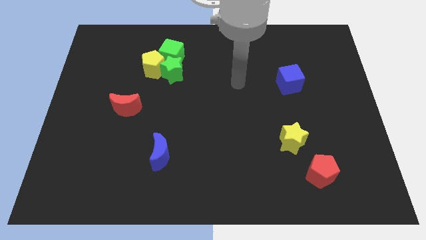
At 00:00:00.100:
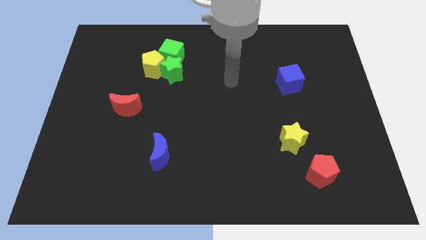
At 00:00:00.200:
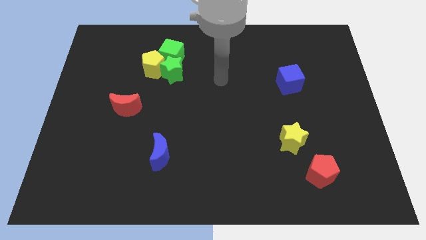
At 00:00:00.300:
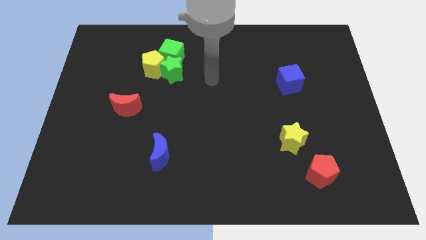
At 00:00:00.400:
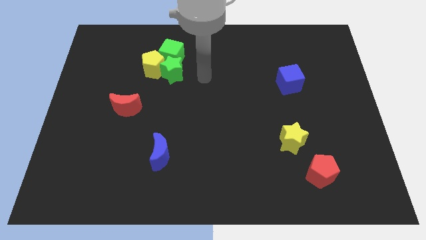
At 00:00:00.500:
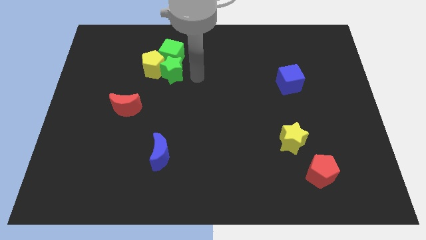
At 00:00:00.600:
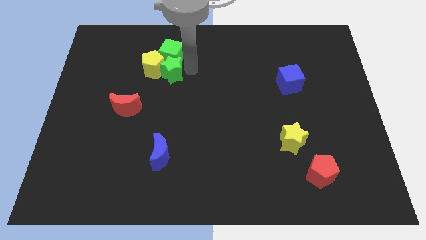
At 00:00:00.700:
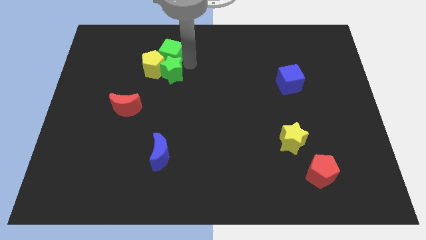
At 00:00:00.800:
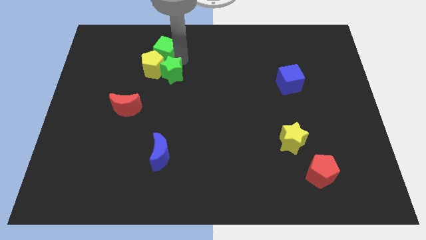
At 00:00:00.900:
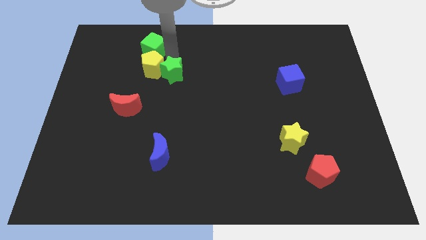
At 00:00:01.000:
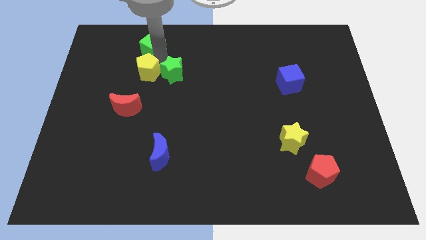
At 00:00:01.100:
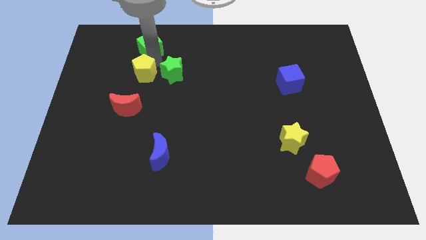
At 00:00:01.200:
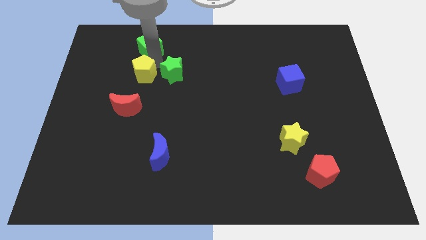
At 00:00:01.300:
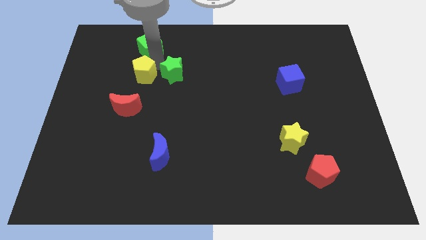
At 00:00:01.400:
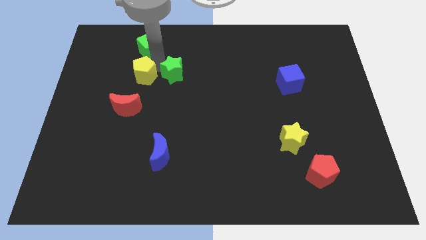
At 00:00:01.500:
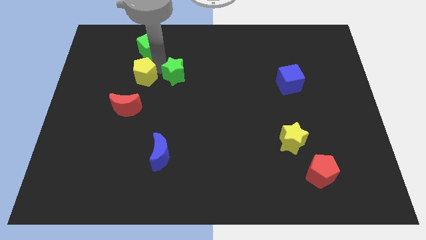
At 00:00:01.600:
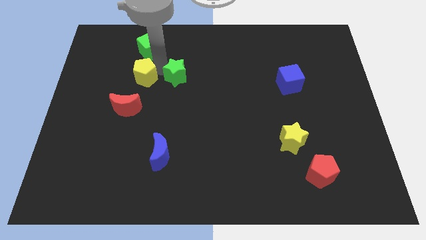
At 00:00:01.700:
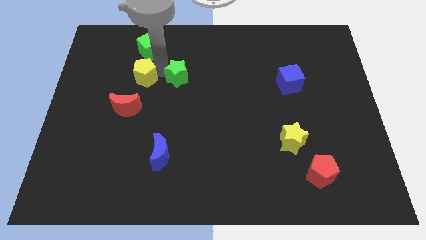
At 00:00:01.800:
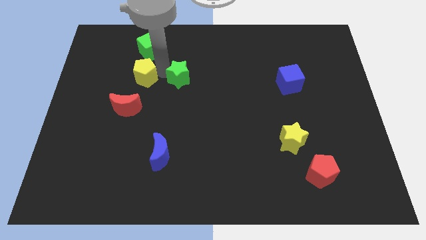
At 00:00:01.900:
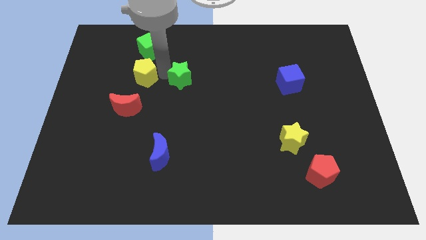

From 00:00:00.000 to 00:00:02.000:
separate the green star from the yellow pentagon and green cube

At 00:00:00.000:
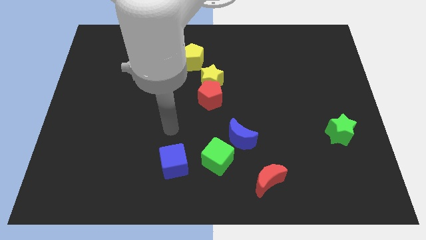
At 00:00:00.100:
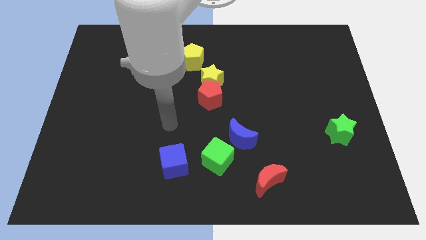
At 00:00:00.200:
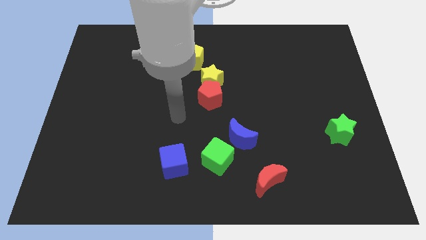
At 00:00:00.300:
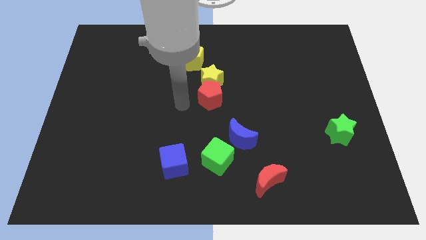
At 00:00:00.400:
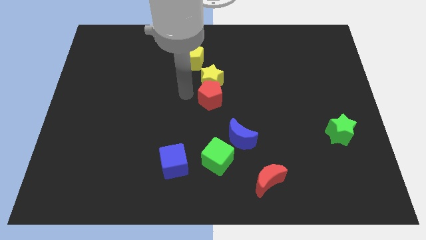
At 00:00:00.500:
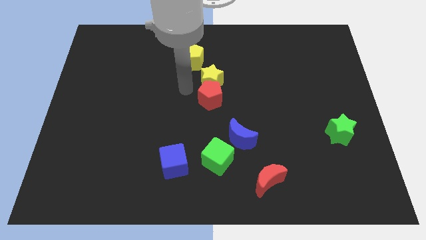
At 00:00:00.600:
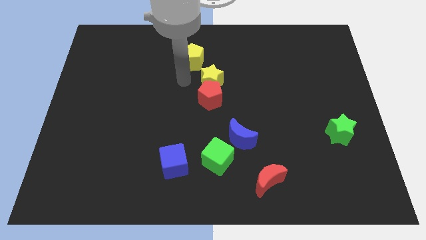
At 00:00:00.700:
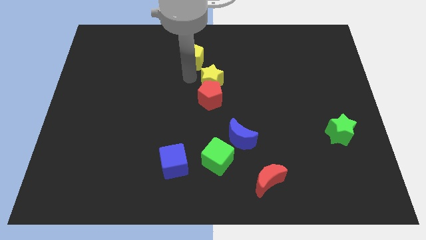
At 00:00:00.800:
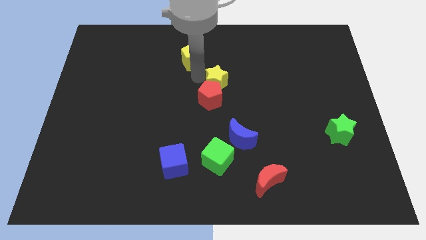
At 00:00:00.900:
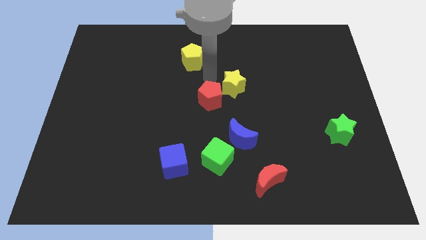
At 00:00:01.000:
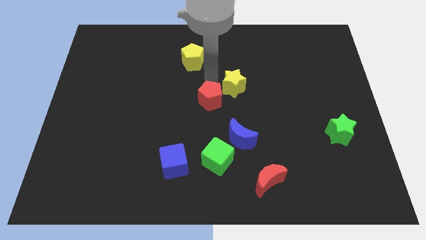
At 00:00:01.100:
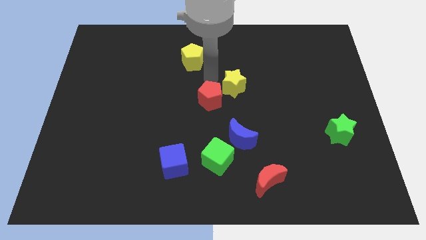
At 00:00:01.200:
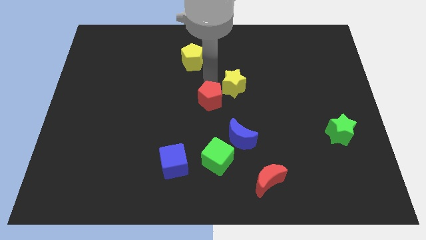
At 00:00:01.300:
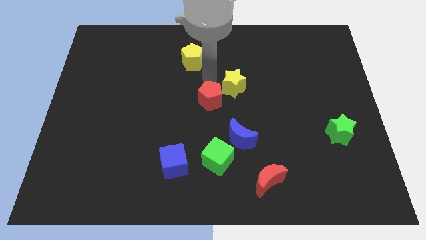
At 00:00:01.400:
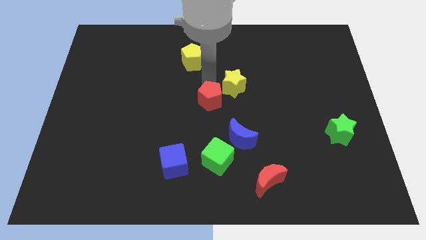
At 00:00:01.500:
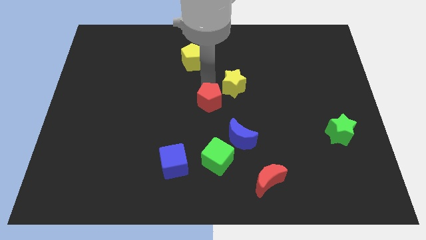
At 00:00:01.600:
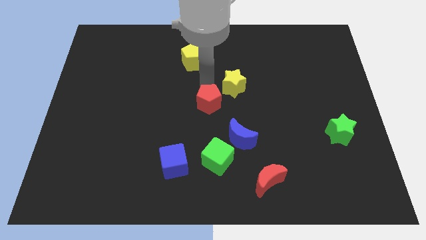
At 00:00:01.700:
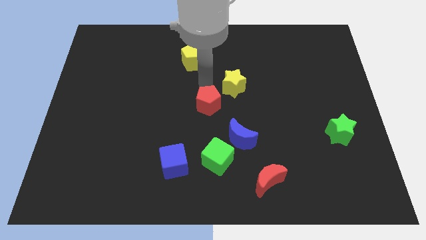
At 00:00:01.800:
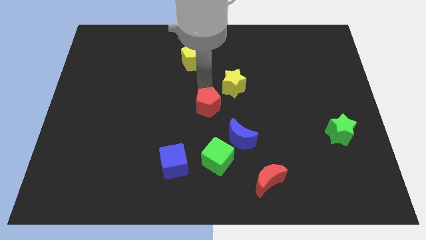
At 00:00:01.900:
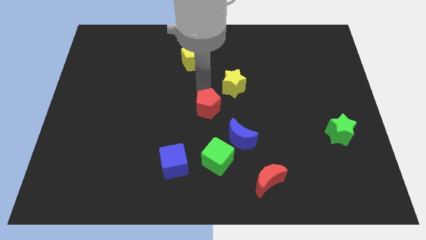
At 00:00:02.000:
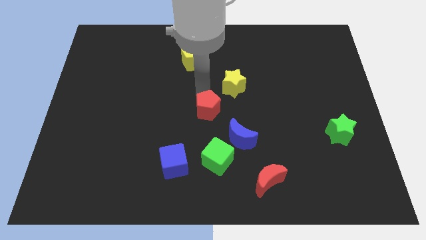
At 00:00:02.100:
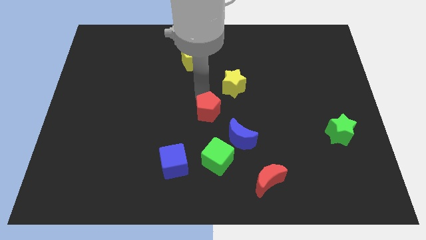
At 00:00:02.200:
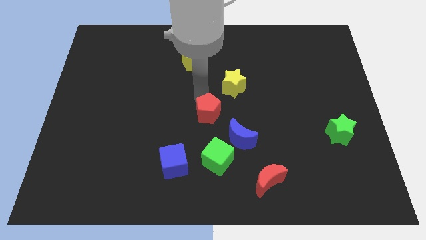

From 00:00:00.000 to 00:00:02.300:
separate the red pentagon from the yellow star

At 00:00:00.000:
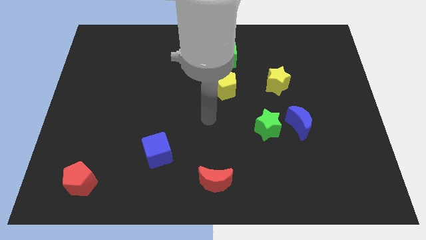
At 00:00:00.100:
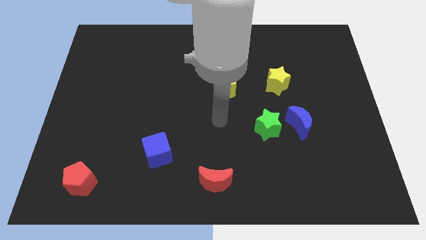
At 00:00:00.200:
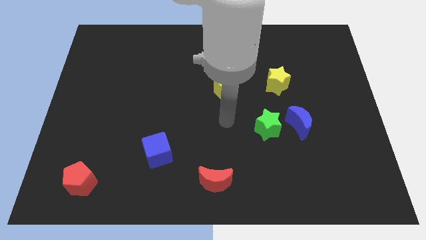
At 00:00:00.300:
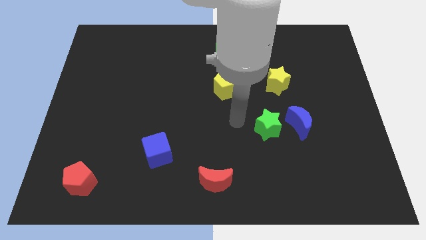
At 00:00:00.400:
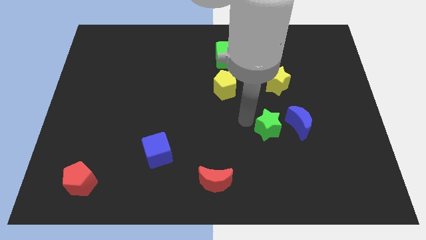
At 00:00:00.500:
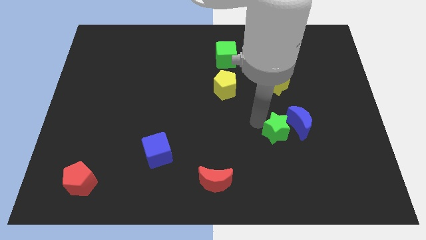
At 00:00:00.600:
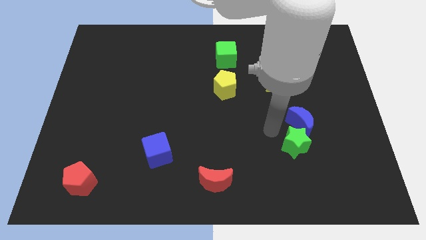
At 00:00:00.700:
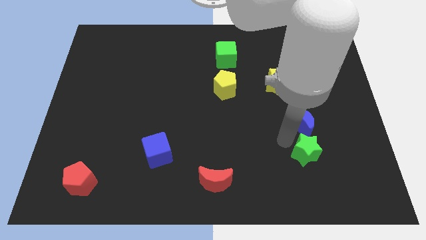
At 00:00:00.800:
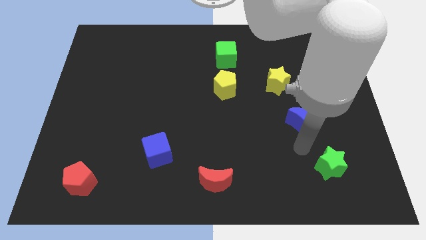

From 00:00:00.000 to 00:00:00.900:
pull the blue moon apart from the green star

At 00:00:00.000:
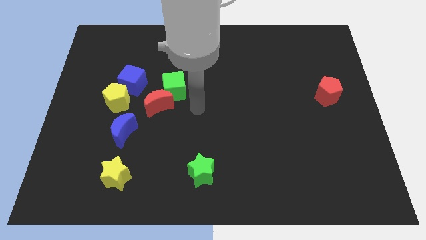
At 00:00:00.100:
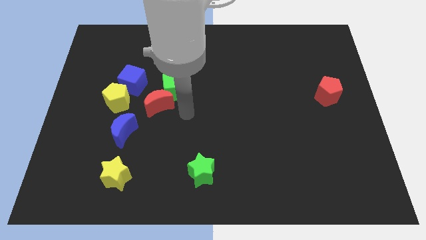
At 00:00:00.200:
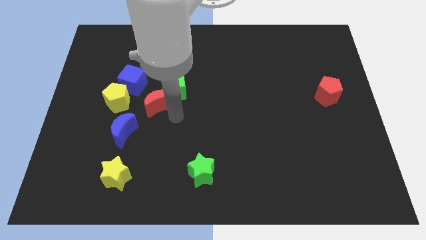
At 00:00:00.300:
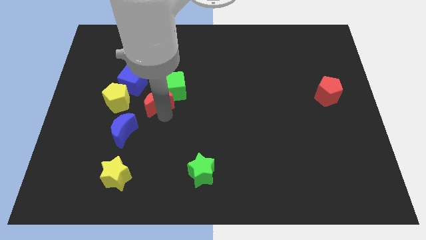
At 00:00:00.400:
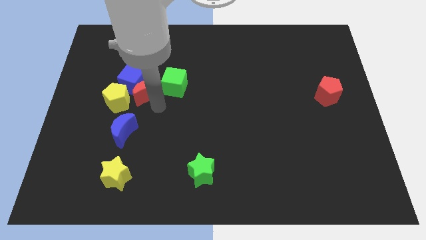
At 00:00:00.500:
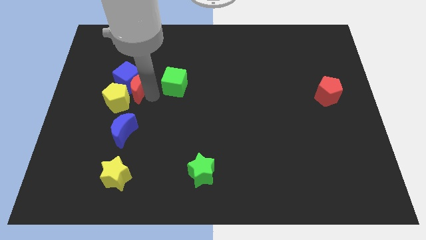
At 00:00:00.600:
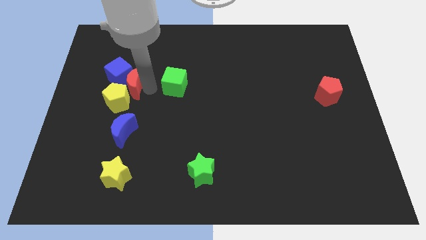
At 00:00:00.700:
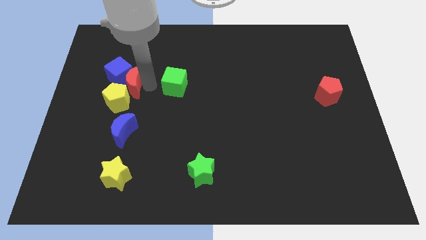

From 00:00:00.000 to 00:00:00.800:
move the green cube away from the red moon

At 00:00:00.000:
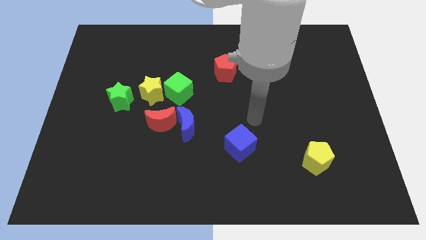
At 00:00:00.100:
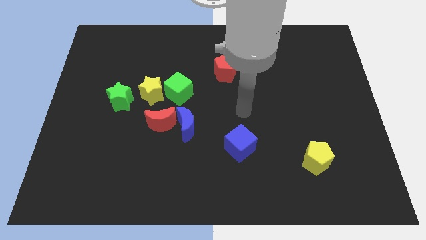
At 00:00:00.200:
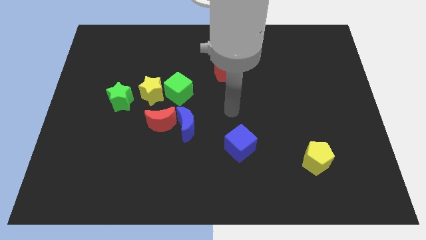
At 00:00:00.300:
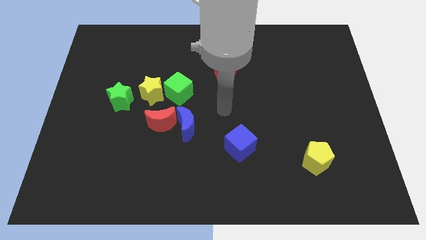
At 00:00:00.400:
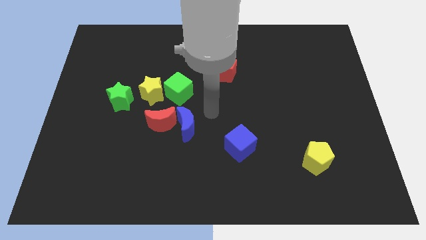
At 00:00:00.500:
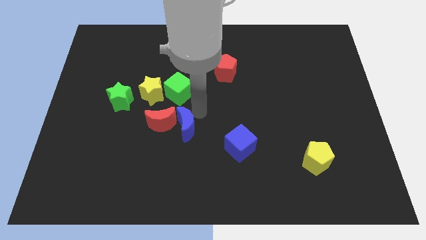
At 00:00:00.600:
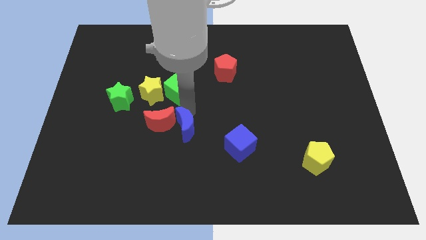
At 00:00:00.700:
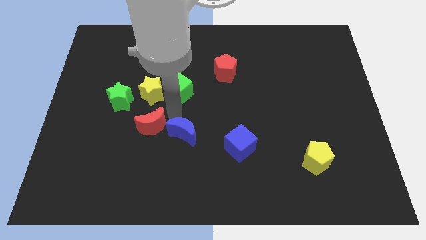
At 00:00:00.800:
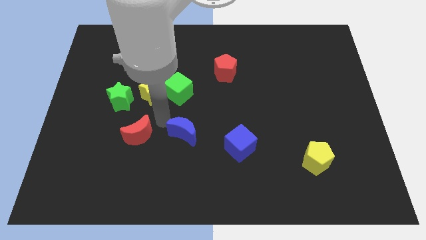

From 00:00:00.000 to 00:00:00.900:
pull the blue moon apart from the red moon

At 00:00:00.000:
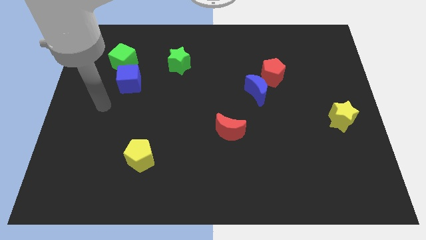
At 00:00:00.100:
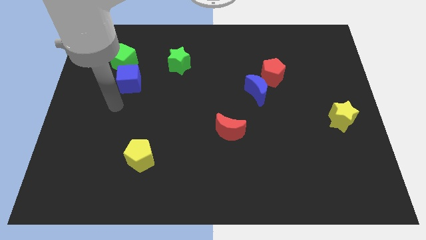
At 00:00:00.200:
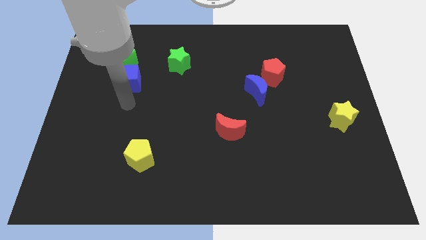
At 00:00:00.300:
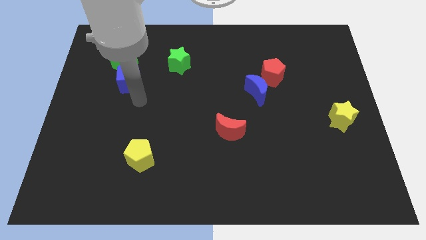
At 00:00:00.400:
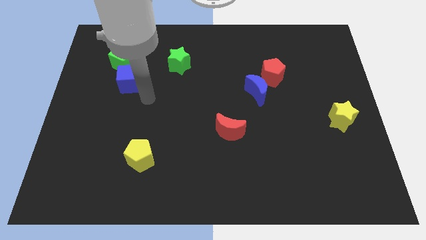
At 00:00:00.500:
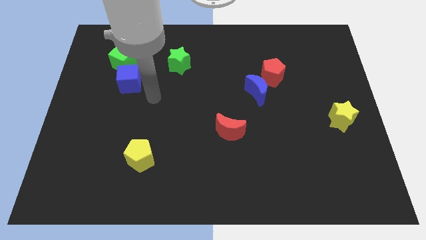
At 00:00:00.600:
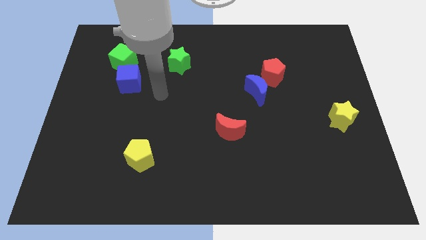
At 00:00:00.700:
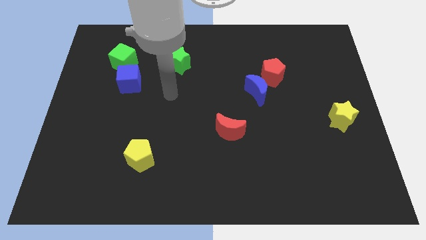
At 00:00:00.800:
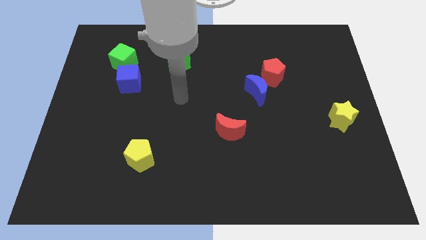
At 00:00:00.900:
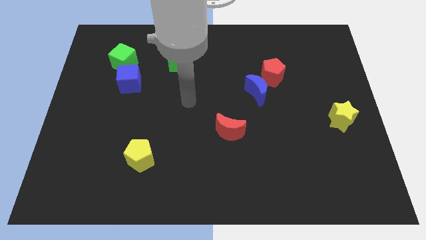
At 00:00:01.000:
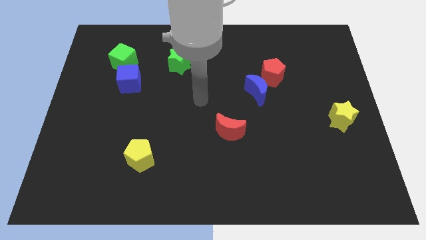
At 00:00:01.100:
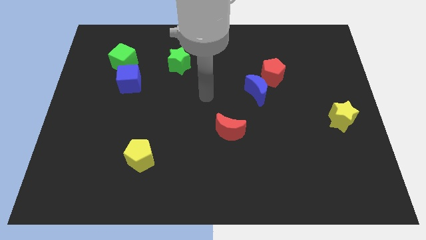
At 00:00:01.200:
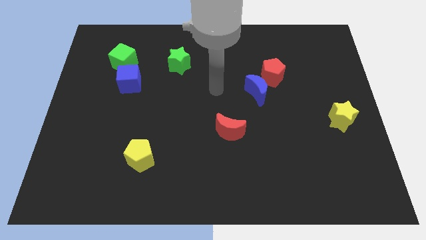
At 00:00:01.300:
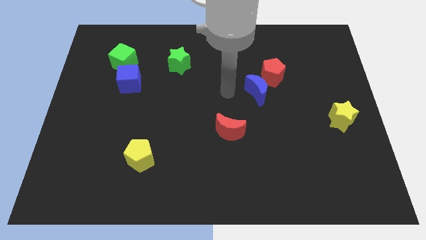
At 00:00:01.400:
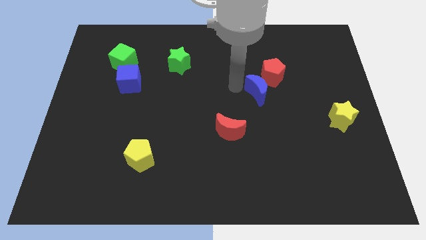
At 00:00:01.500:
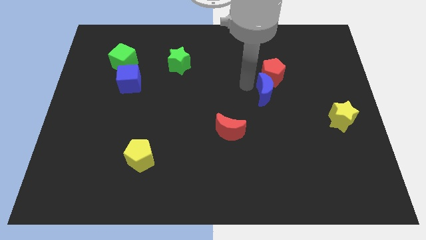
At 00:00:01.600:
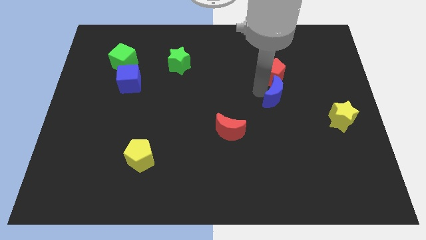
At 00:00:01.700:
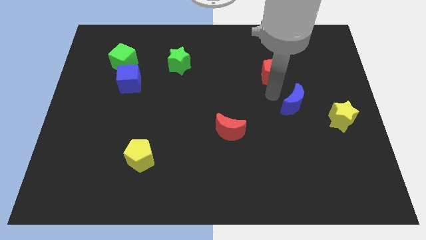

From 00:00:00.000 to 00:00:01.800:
separate the red pentagon from the blue moon

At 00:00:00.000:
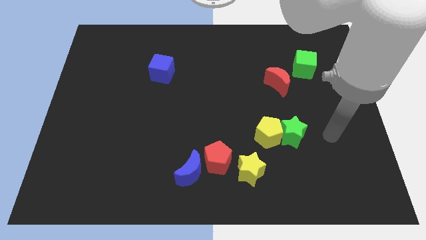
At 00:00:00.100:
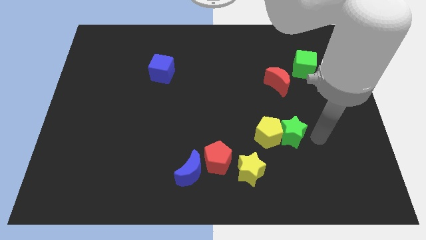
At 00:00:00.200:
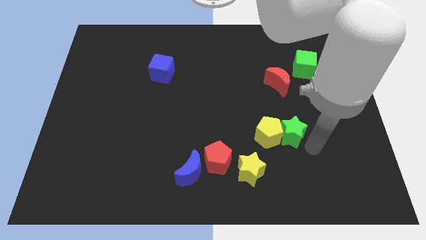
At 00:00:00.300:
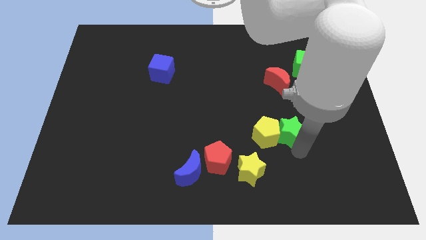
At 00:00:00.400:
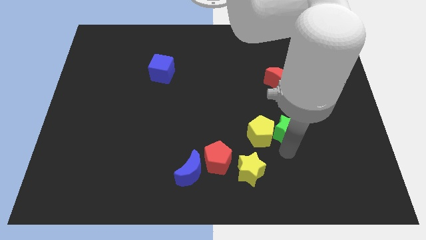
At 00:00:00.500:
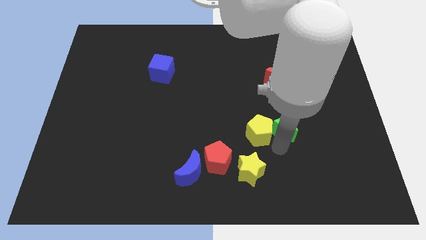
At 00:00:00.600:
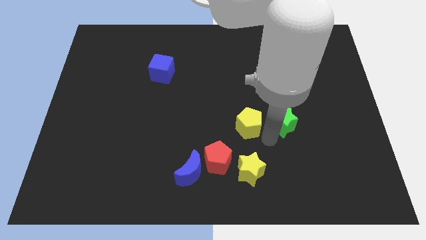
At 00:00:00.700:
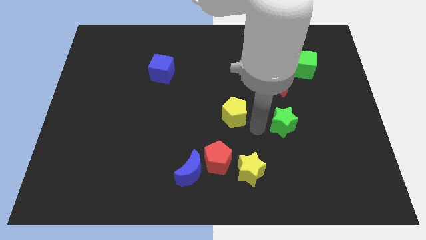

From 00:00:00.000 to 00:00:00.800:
separate the green star from the yellow pentagon
